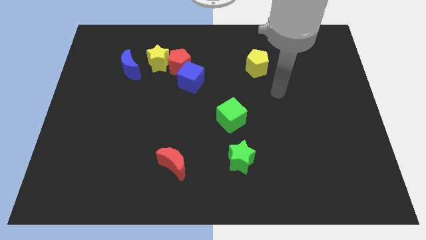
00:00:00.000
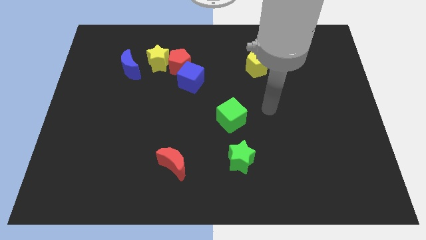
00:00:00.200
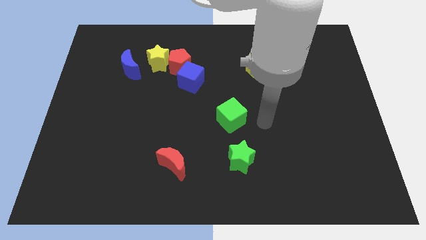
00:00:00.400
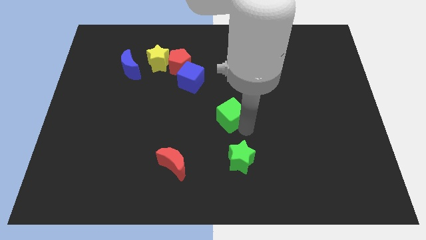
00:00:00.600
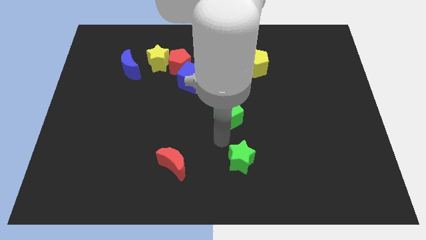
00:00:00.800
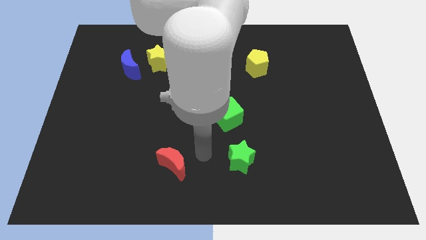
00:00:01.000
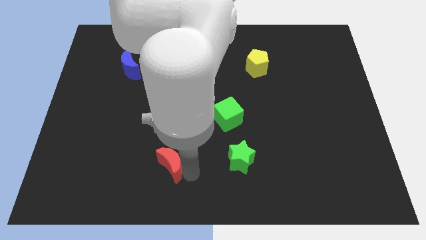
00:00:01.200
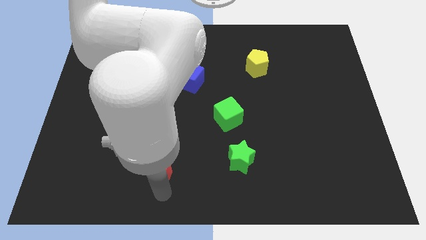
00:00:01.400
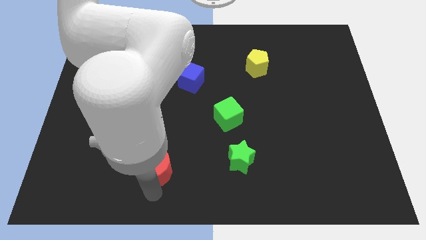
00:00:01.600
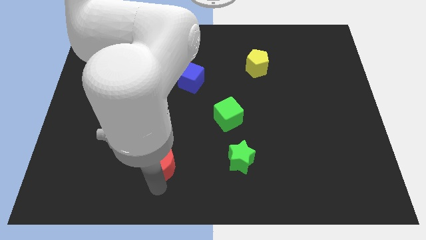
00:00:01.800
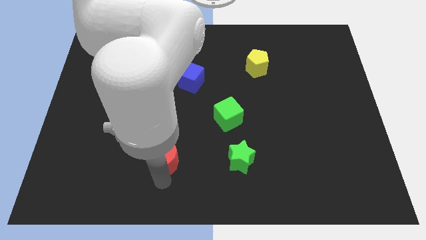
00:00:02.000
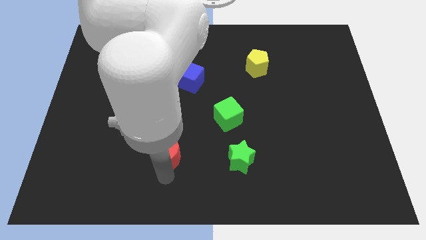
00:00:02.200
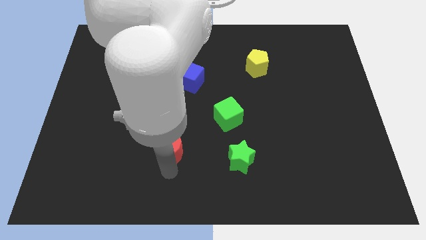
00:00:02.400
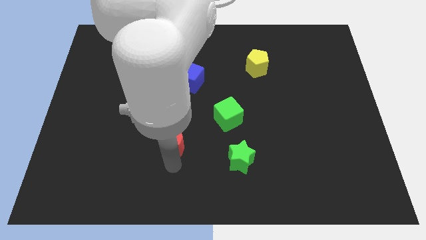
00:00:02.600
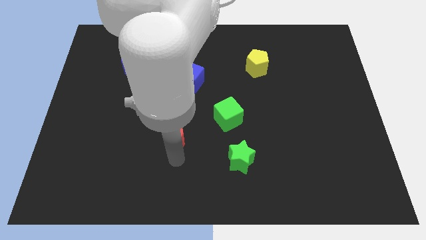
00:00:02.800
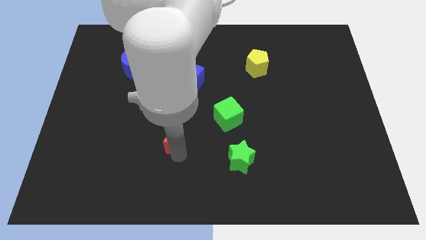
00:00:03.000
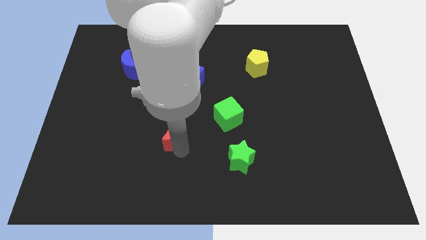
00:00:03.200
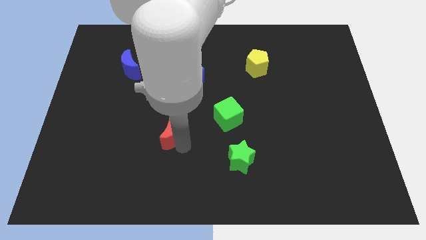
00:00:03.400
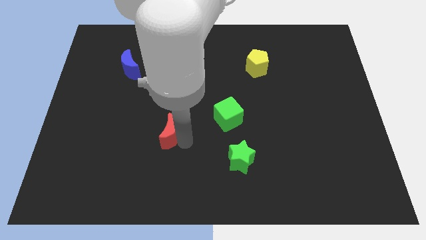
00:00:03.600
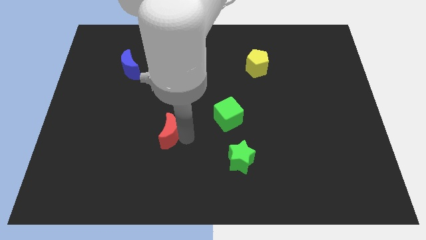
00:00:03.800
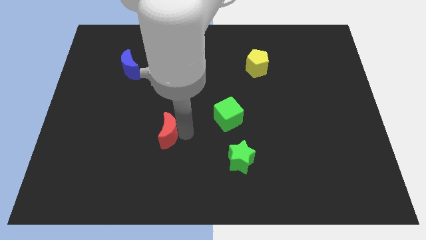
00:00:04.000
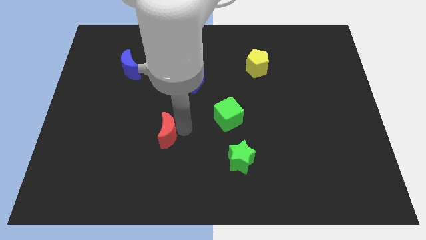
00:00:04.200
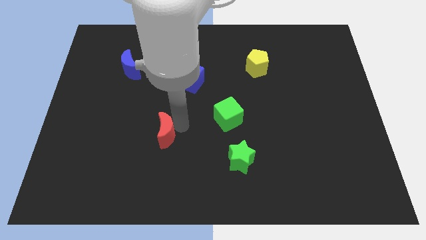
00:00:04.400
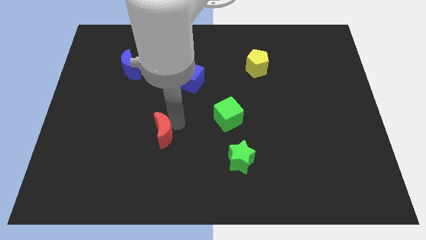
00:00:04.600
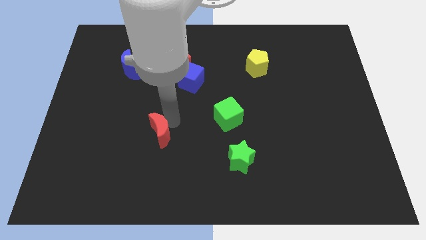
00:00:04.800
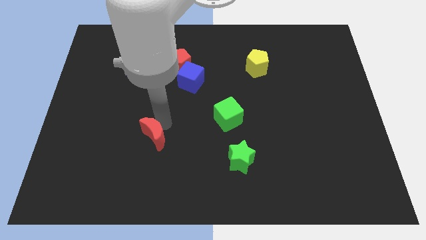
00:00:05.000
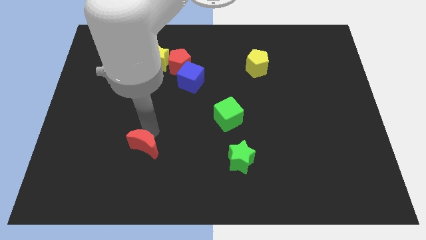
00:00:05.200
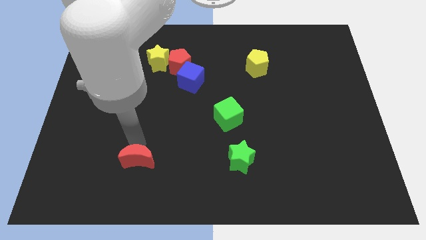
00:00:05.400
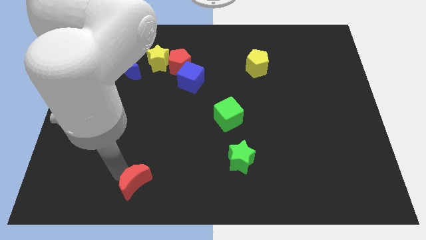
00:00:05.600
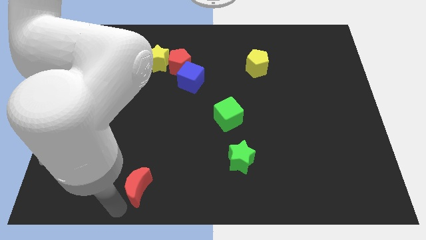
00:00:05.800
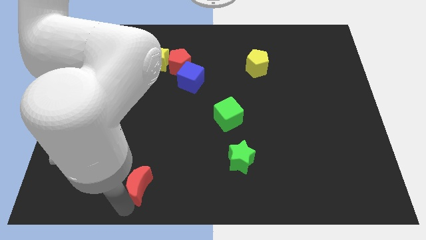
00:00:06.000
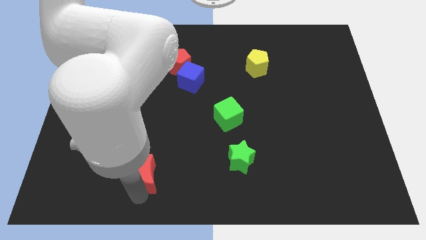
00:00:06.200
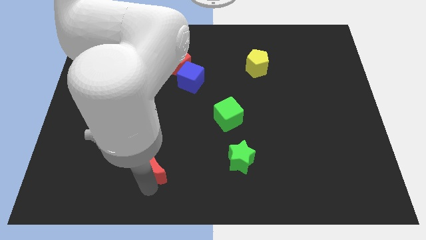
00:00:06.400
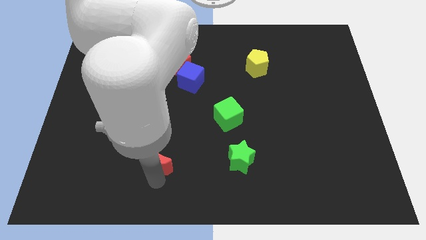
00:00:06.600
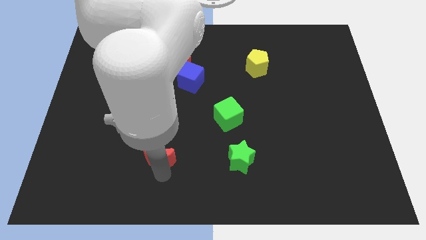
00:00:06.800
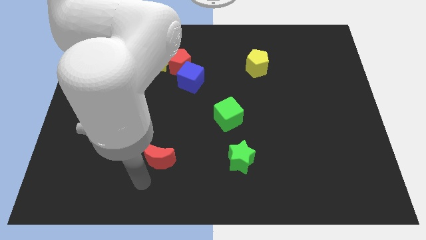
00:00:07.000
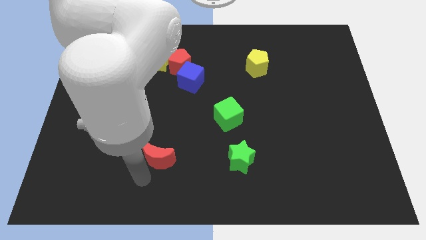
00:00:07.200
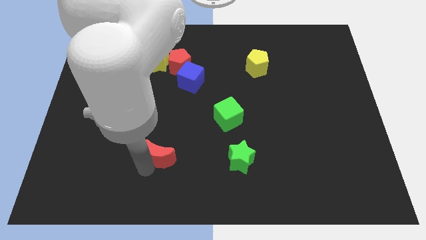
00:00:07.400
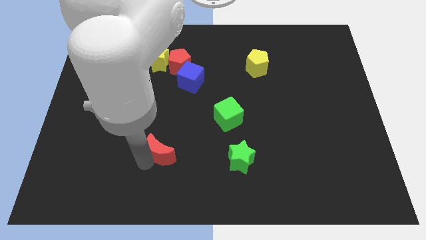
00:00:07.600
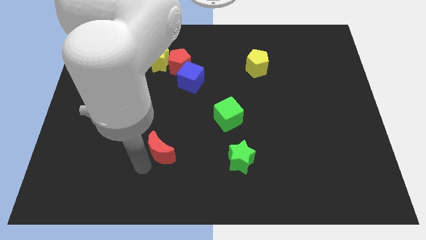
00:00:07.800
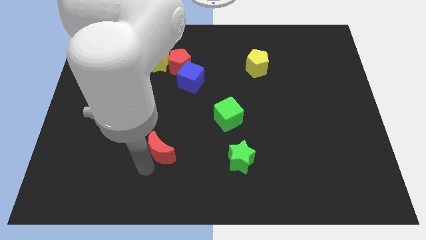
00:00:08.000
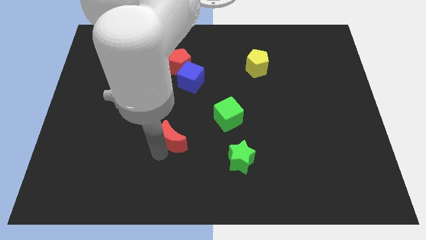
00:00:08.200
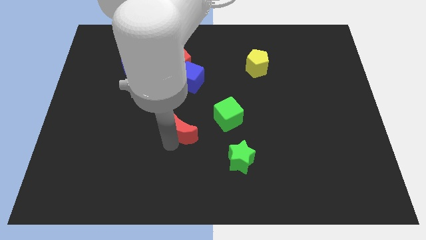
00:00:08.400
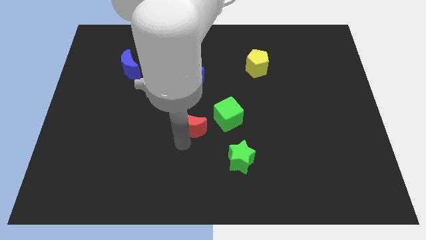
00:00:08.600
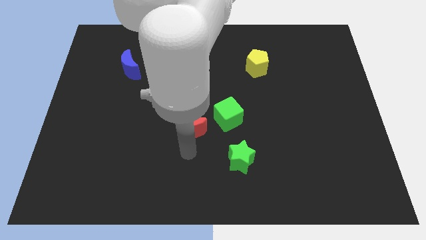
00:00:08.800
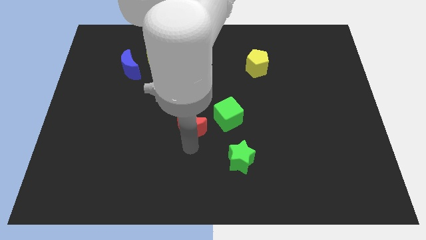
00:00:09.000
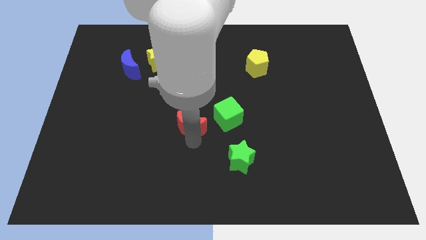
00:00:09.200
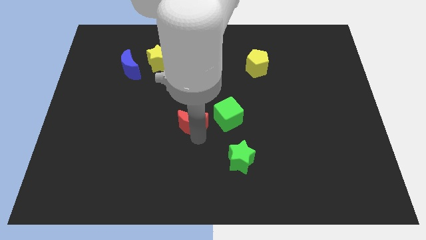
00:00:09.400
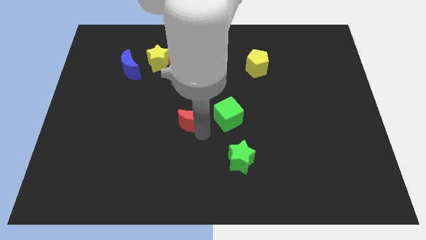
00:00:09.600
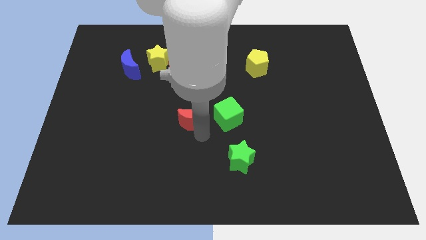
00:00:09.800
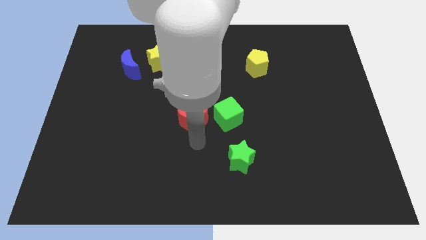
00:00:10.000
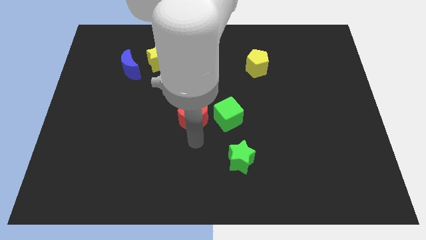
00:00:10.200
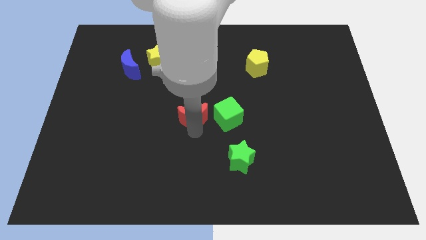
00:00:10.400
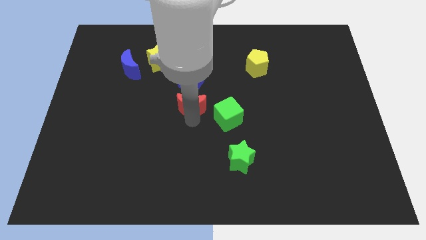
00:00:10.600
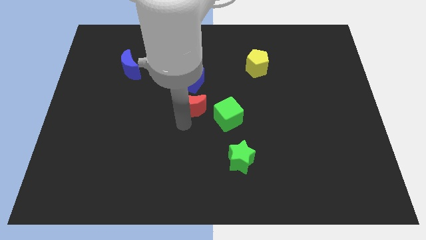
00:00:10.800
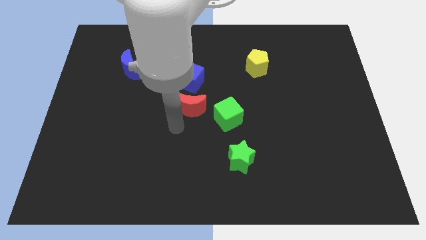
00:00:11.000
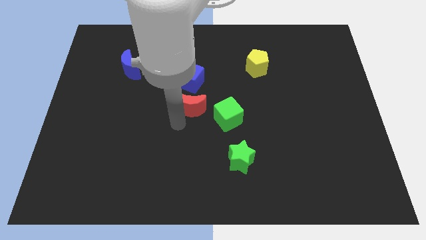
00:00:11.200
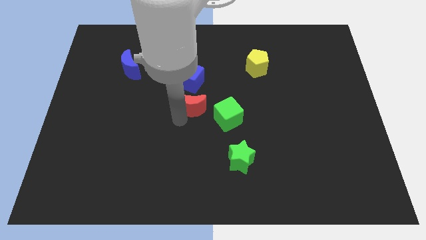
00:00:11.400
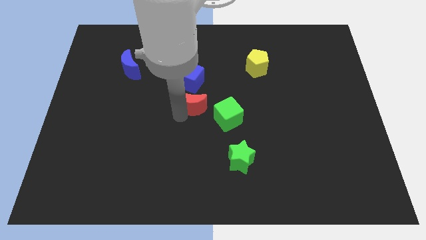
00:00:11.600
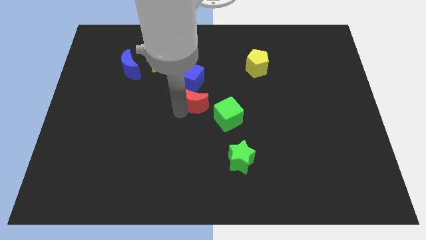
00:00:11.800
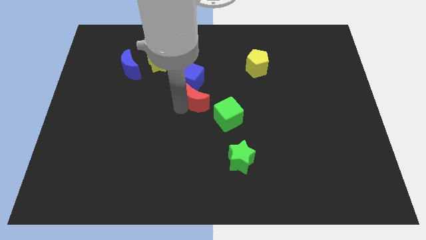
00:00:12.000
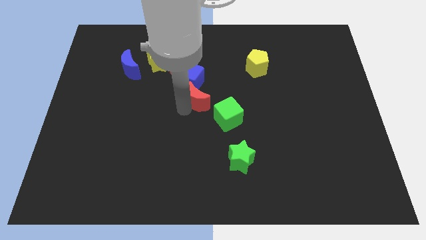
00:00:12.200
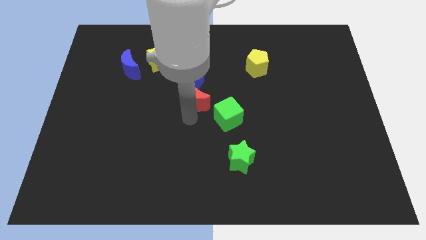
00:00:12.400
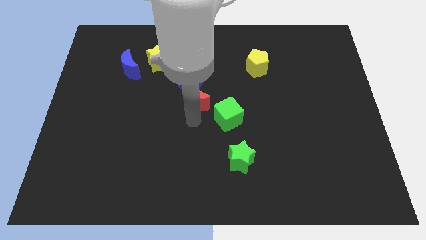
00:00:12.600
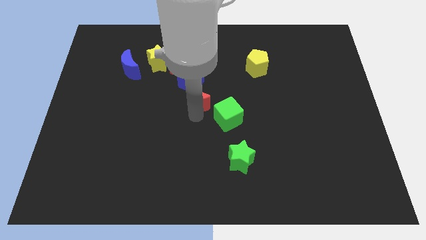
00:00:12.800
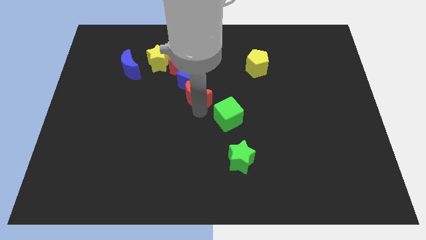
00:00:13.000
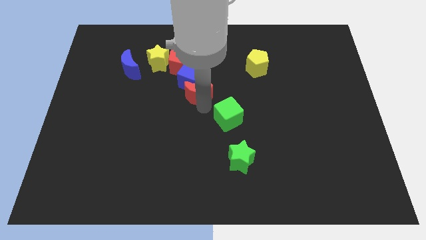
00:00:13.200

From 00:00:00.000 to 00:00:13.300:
push the red moon to the bottom right of the red pentagon

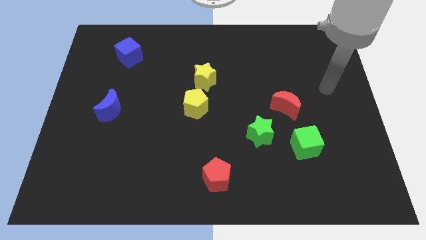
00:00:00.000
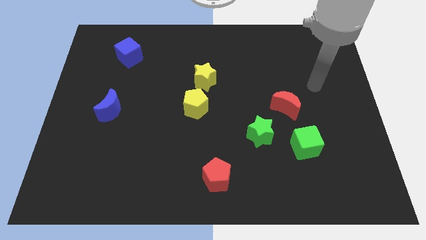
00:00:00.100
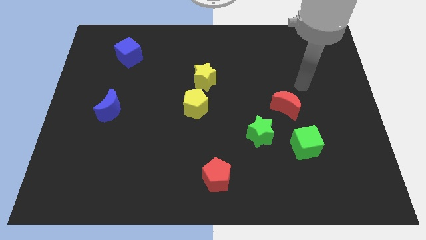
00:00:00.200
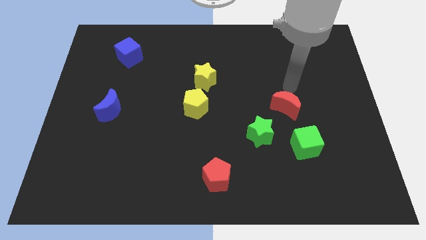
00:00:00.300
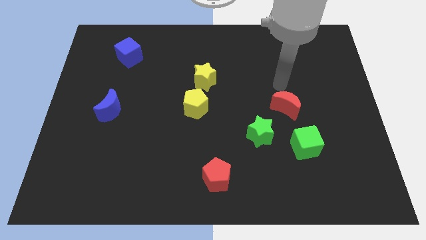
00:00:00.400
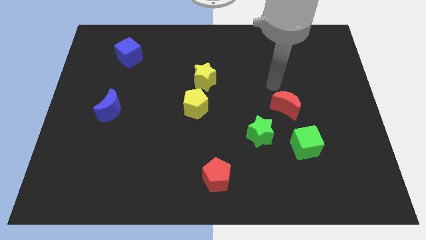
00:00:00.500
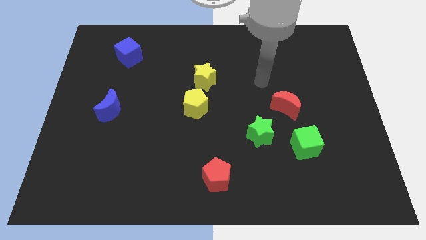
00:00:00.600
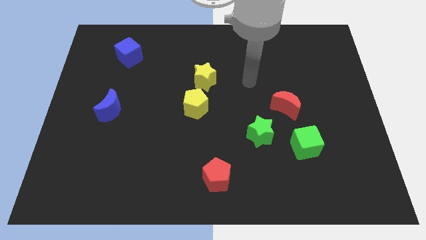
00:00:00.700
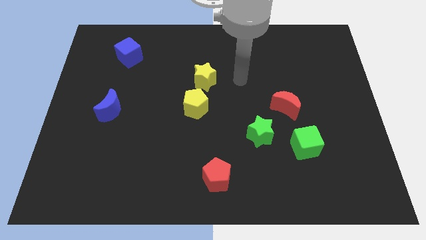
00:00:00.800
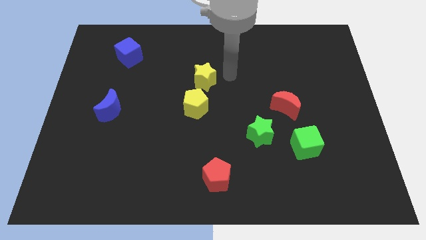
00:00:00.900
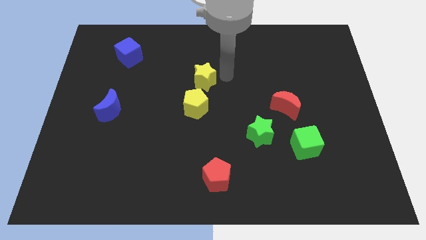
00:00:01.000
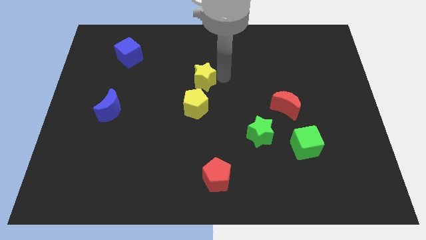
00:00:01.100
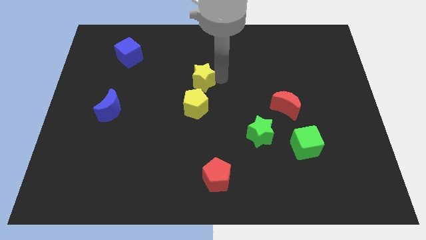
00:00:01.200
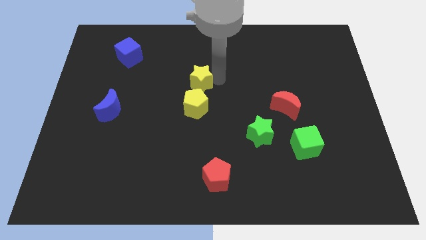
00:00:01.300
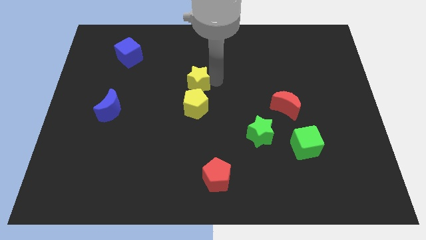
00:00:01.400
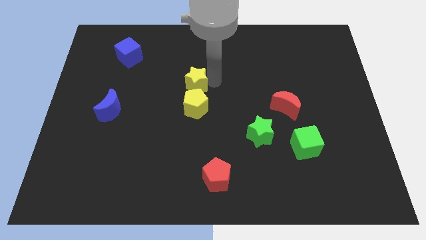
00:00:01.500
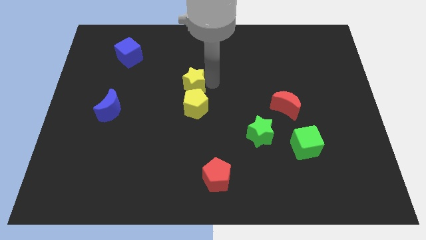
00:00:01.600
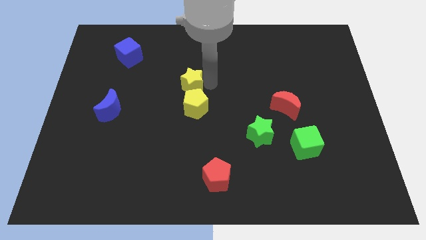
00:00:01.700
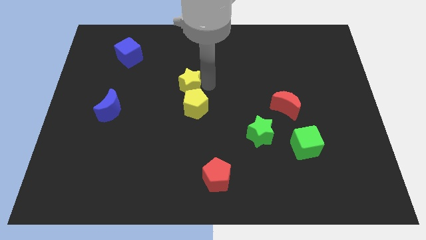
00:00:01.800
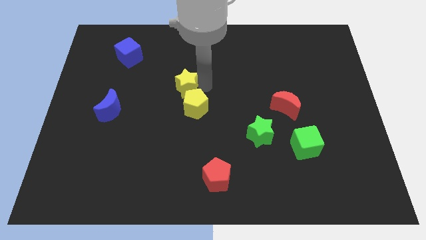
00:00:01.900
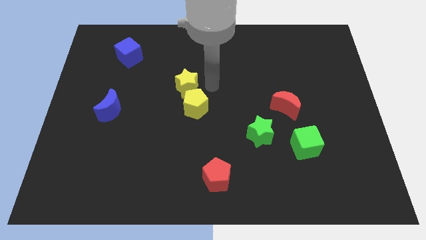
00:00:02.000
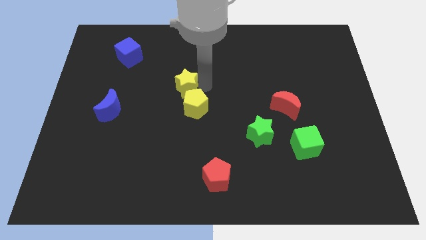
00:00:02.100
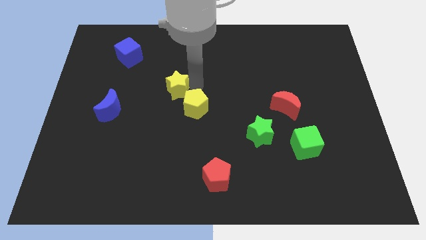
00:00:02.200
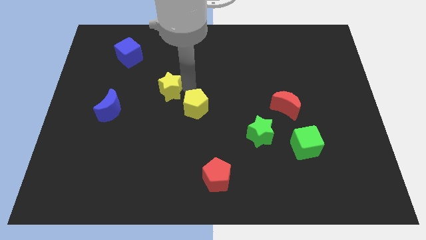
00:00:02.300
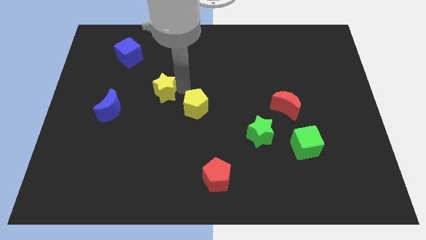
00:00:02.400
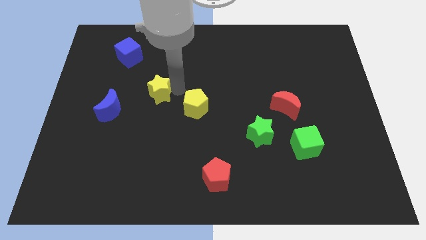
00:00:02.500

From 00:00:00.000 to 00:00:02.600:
push the yellow star diagonally up and to the right of the blue moon
